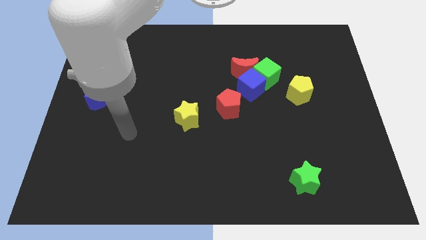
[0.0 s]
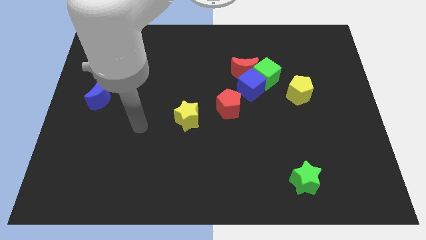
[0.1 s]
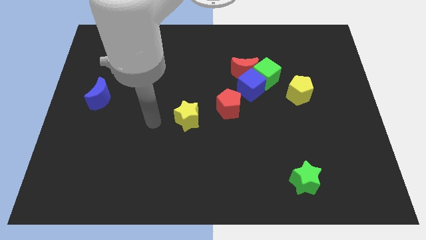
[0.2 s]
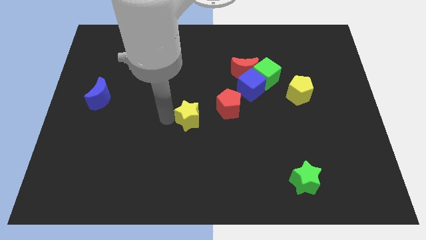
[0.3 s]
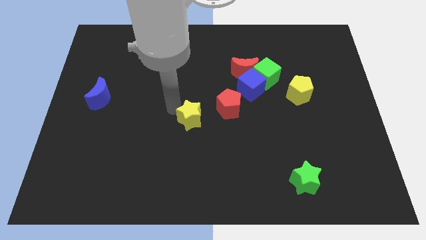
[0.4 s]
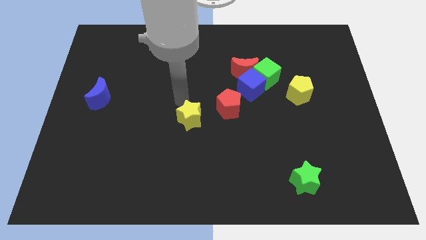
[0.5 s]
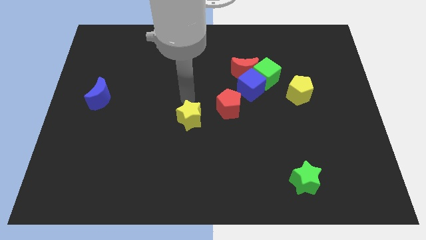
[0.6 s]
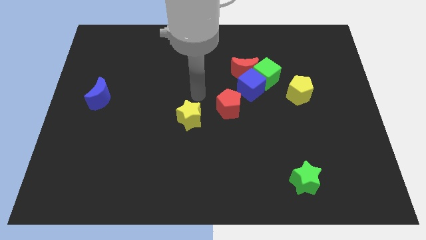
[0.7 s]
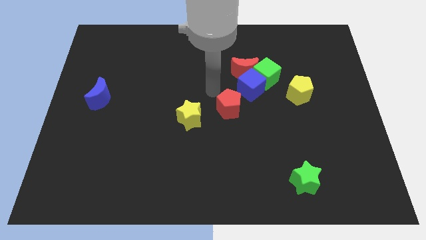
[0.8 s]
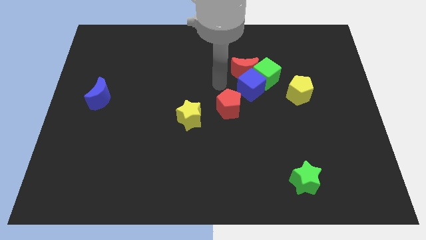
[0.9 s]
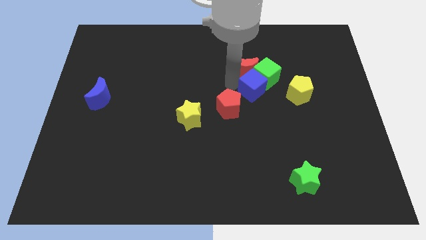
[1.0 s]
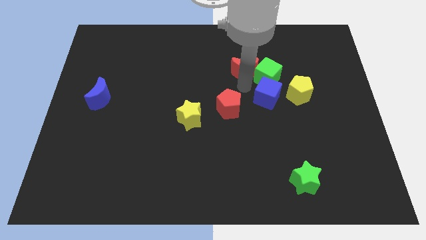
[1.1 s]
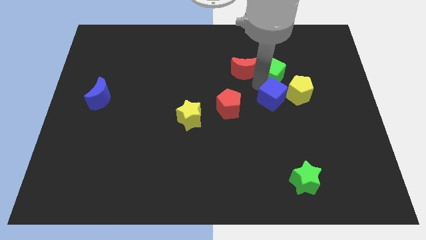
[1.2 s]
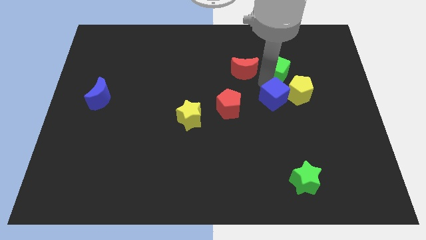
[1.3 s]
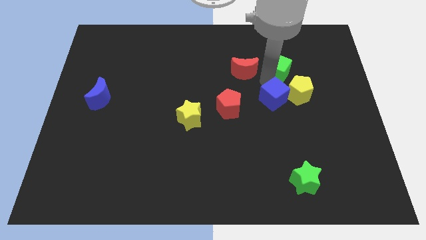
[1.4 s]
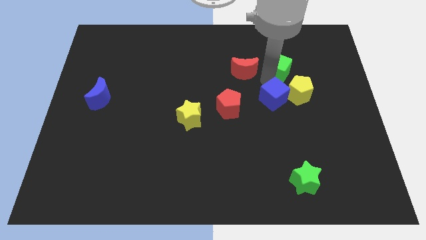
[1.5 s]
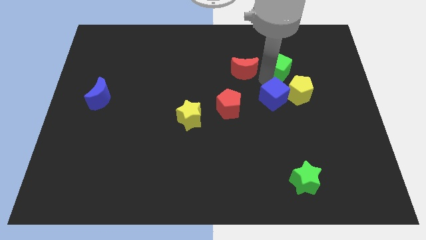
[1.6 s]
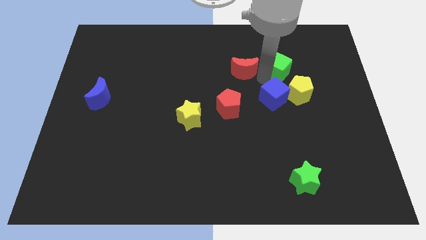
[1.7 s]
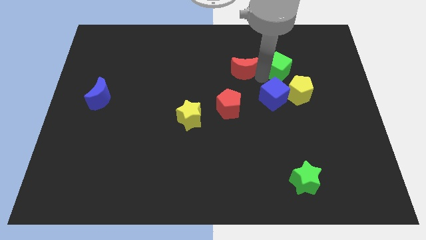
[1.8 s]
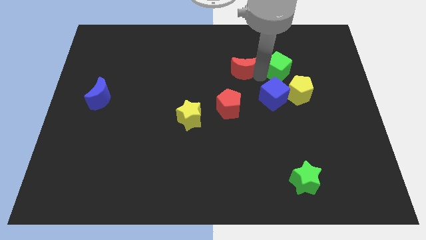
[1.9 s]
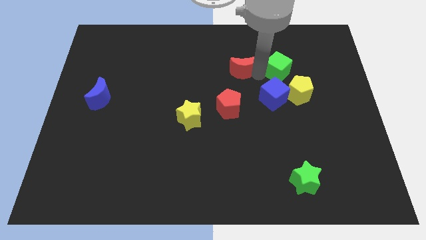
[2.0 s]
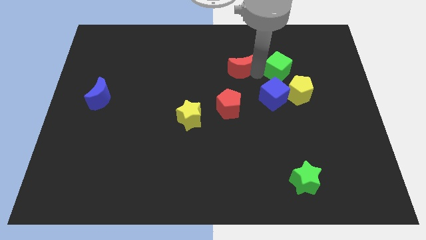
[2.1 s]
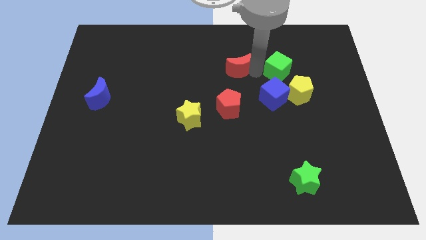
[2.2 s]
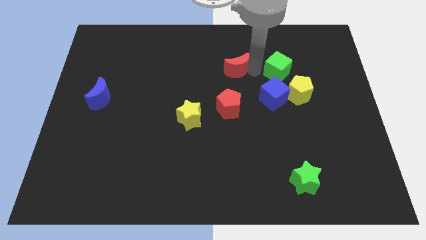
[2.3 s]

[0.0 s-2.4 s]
move the red moon away from the green cube and blue cube

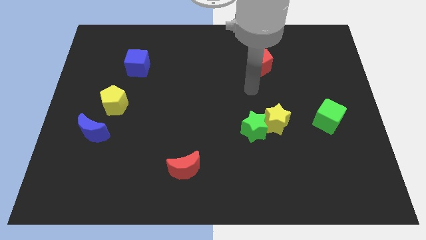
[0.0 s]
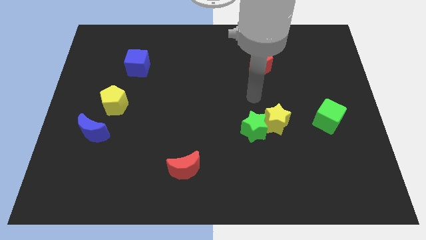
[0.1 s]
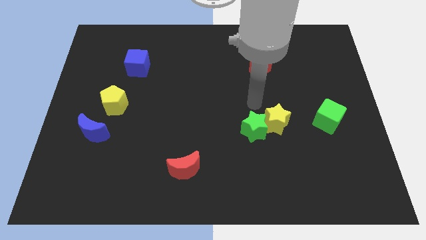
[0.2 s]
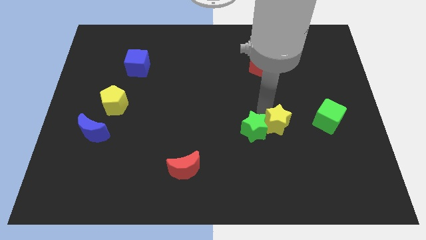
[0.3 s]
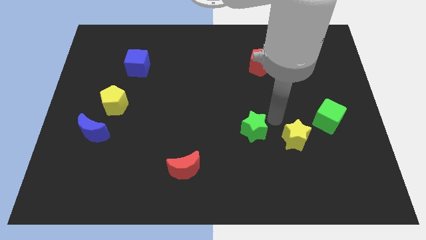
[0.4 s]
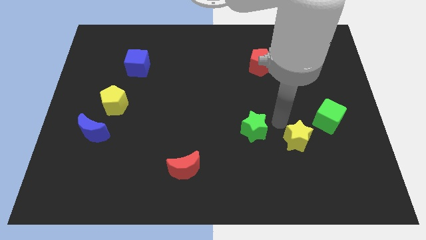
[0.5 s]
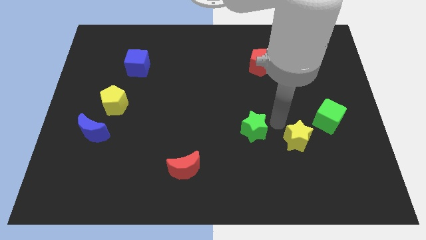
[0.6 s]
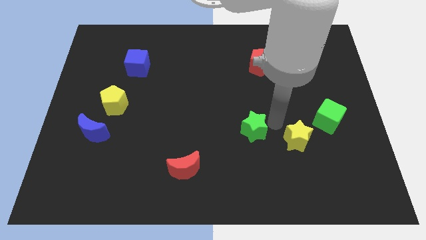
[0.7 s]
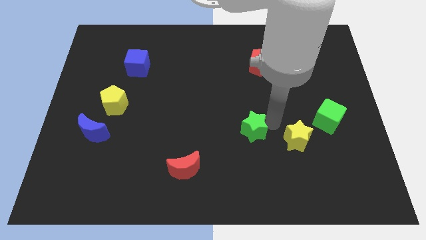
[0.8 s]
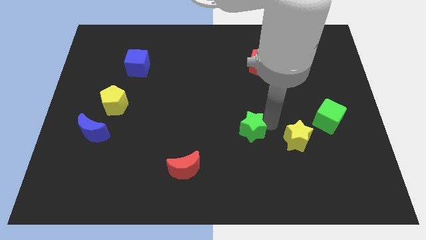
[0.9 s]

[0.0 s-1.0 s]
pull the green star apart from the yellow star

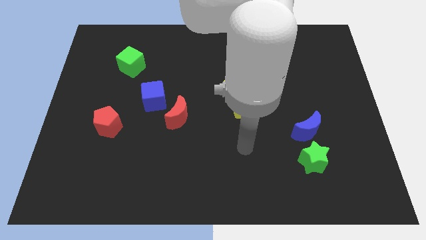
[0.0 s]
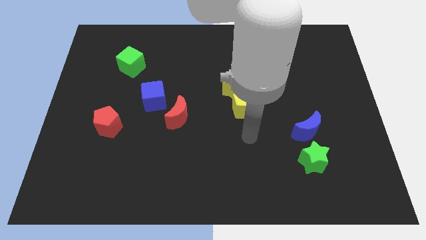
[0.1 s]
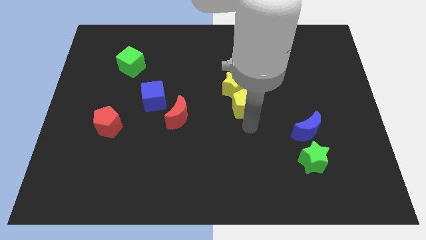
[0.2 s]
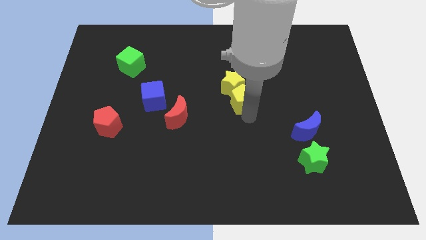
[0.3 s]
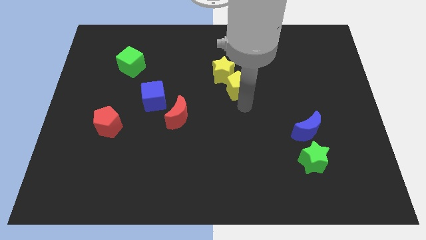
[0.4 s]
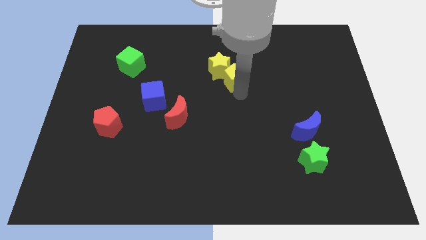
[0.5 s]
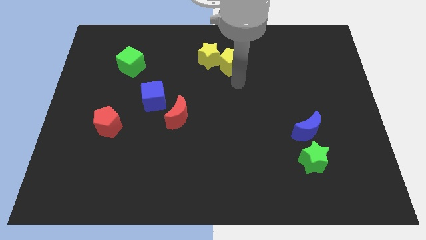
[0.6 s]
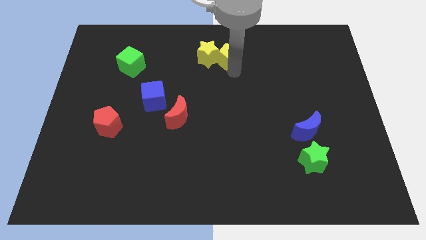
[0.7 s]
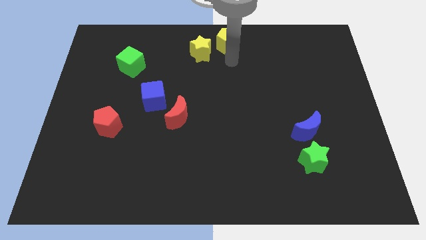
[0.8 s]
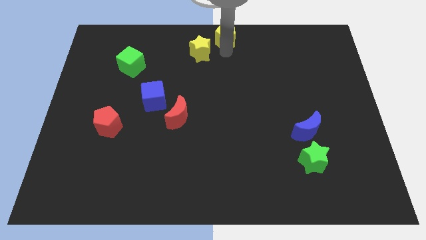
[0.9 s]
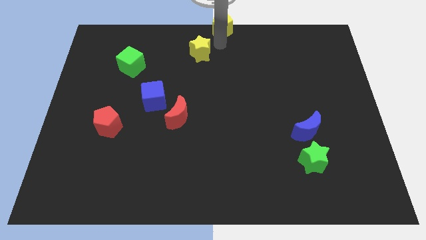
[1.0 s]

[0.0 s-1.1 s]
pull the yellow star apart from the yellow pentagon

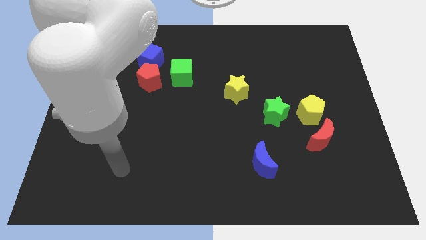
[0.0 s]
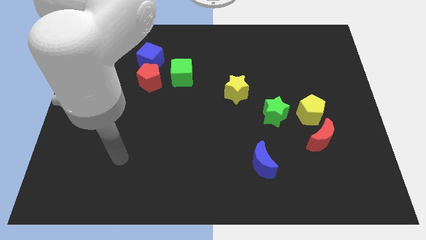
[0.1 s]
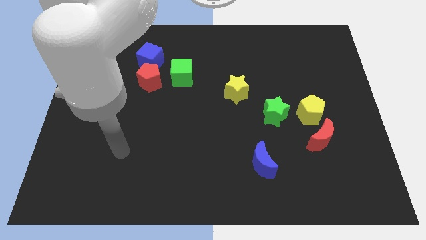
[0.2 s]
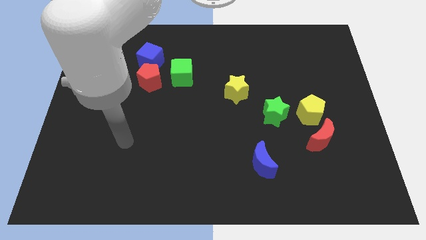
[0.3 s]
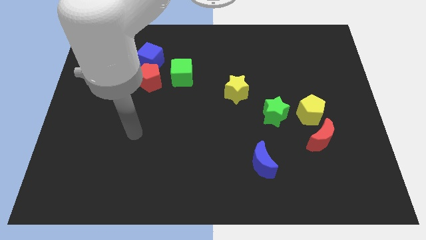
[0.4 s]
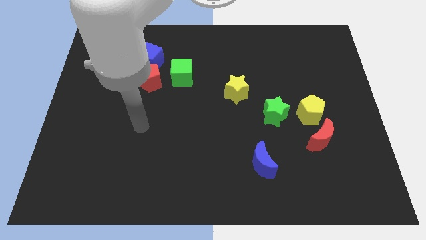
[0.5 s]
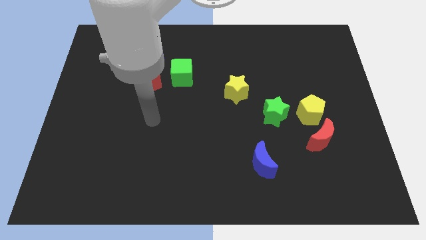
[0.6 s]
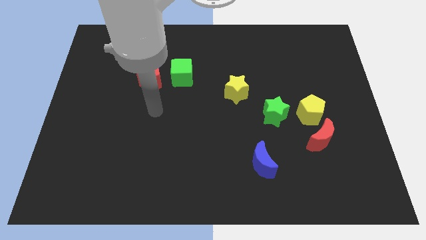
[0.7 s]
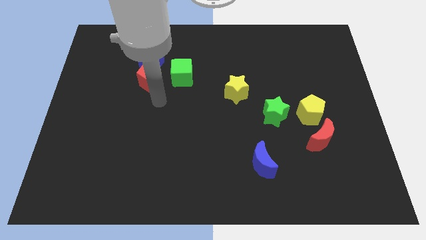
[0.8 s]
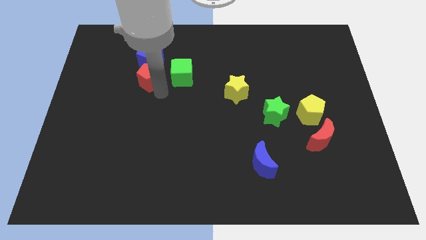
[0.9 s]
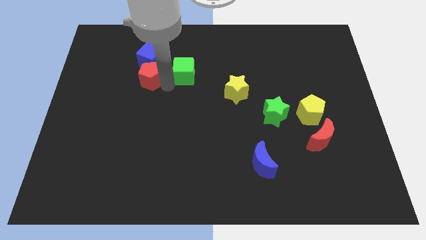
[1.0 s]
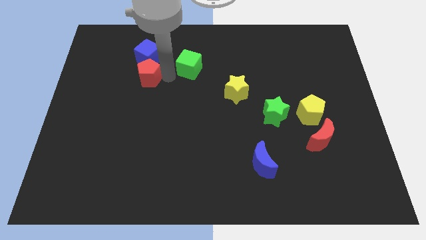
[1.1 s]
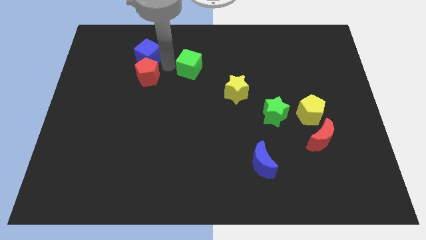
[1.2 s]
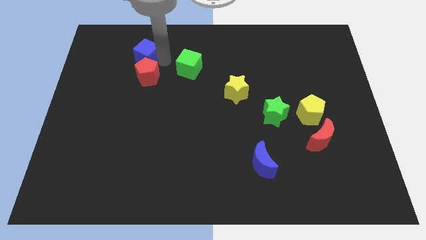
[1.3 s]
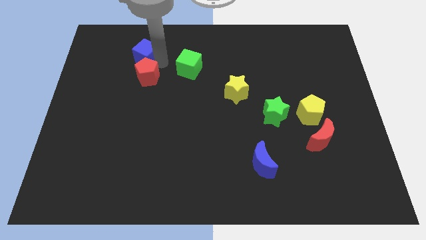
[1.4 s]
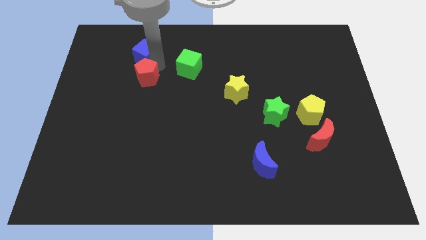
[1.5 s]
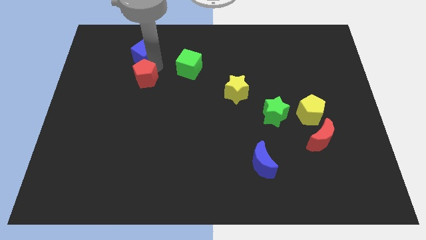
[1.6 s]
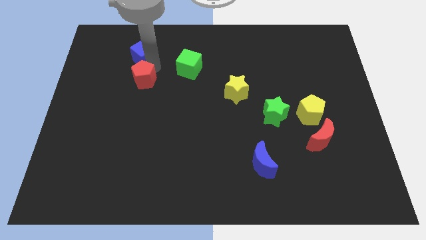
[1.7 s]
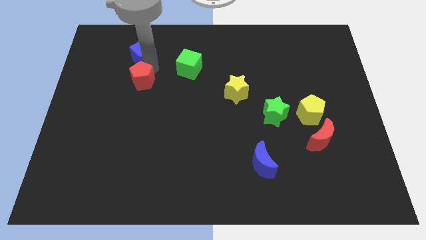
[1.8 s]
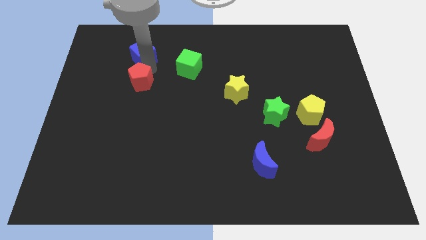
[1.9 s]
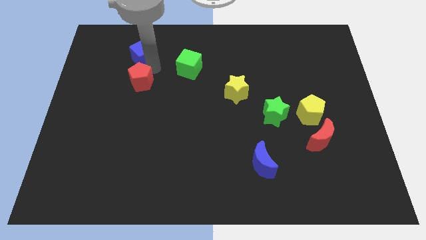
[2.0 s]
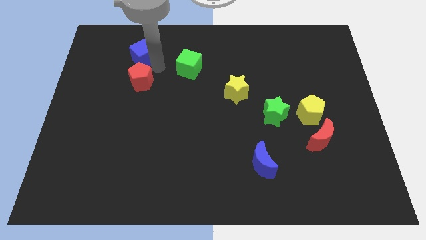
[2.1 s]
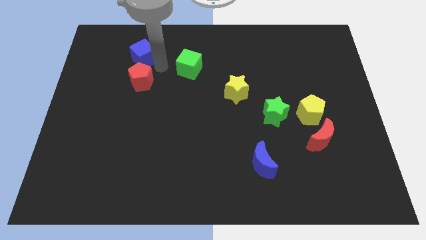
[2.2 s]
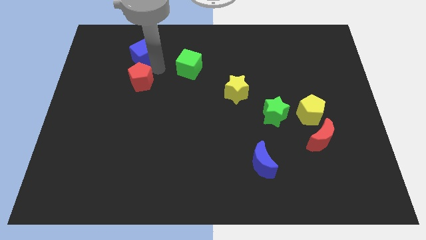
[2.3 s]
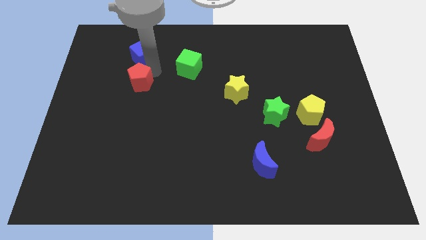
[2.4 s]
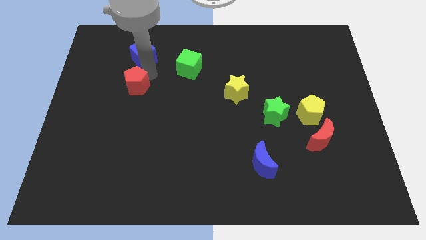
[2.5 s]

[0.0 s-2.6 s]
move the red pentagon away from the blue cube and green cube

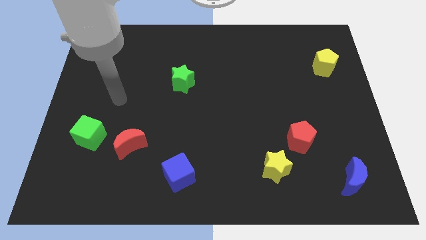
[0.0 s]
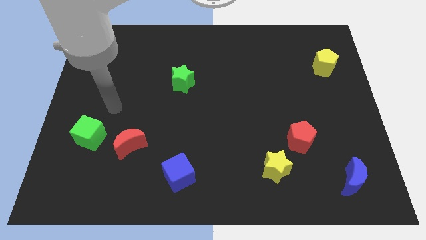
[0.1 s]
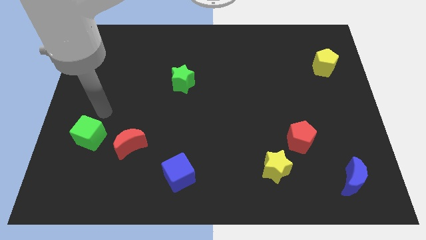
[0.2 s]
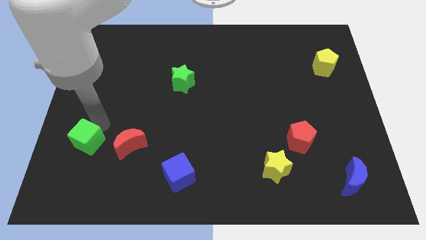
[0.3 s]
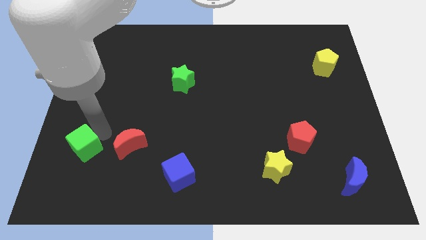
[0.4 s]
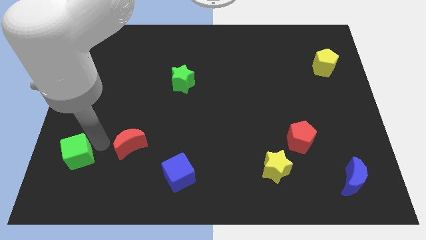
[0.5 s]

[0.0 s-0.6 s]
pull the red moon apart from the green cube

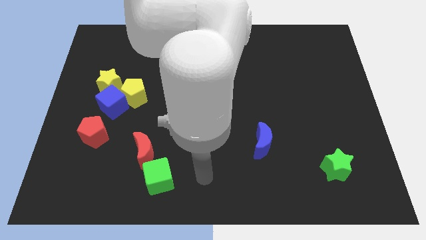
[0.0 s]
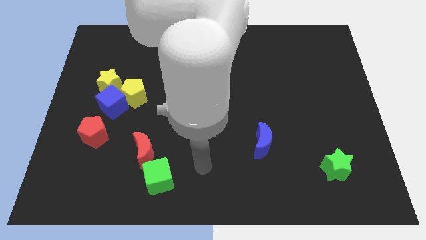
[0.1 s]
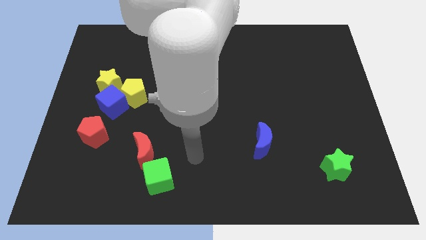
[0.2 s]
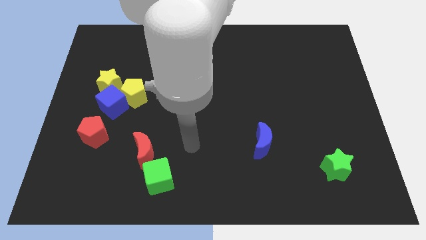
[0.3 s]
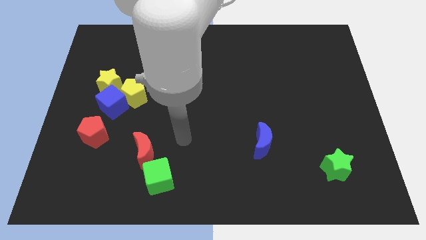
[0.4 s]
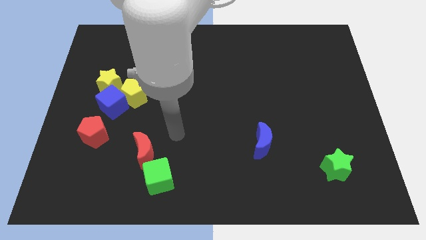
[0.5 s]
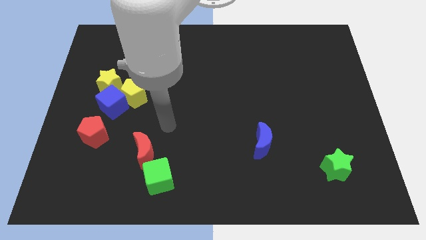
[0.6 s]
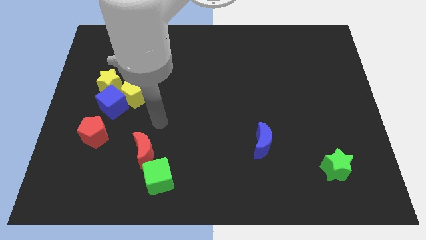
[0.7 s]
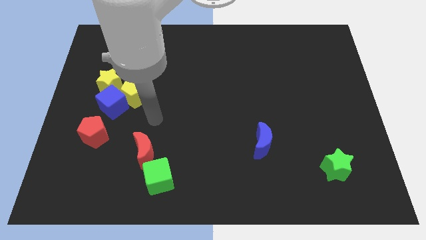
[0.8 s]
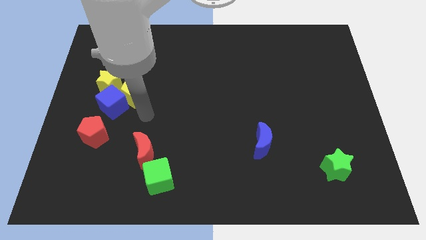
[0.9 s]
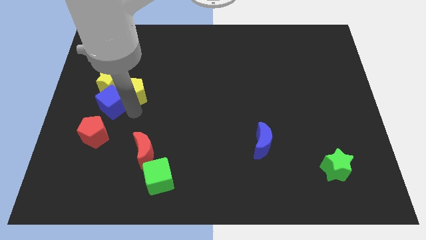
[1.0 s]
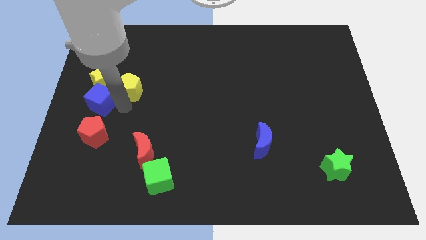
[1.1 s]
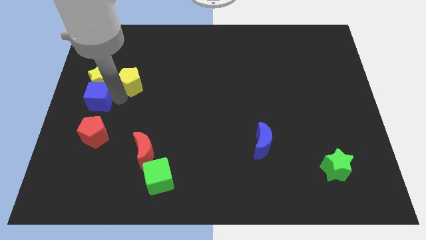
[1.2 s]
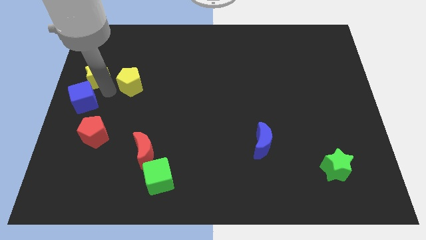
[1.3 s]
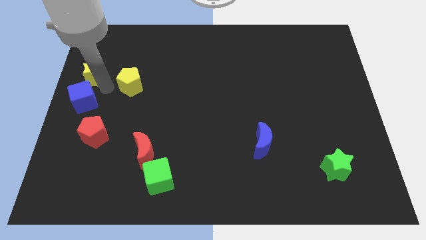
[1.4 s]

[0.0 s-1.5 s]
move the yellow pentagon away from the blue cube and yellow star

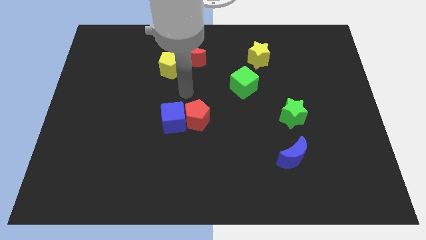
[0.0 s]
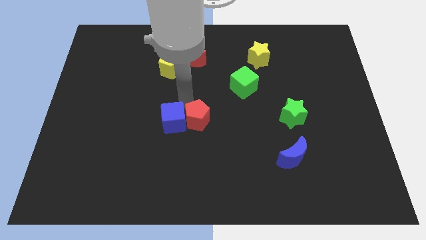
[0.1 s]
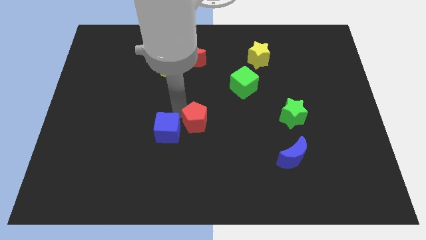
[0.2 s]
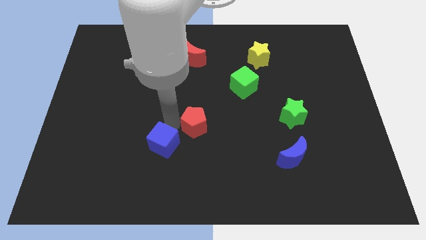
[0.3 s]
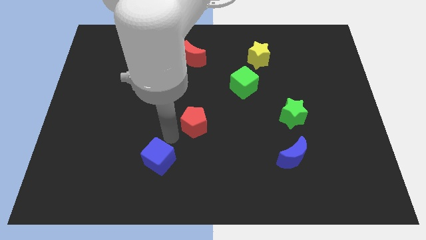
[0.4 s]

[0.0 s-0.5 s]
separate the red pentagon from the blue cube
